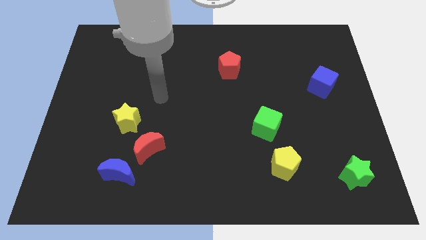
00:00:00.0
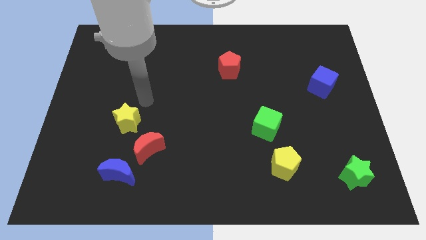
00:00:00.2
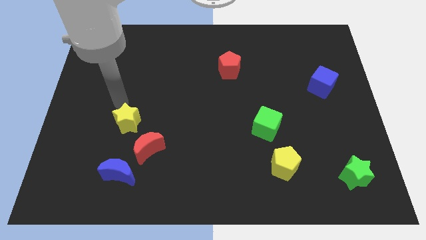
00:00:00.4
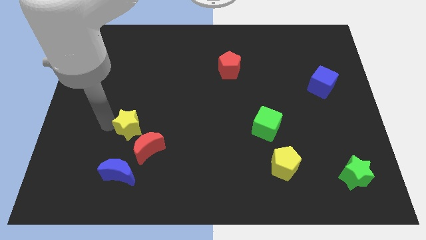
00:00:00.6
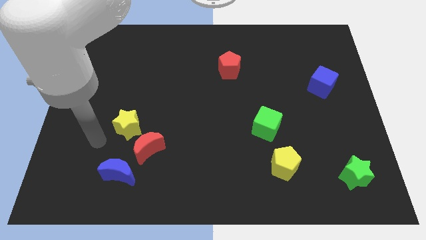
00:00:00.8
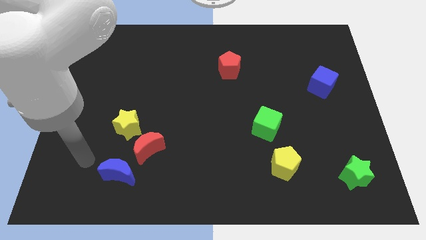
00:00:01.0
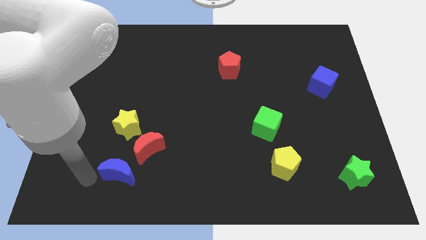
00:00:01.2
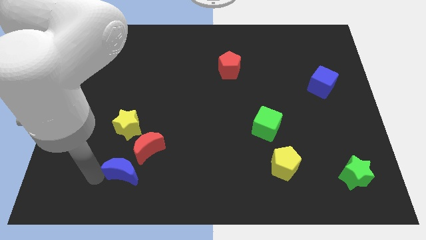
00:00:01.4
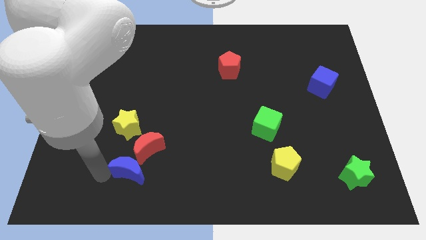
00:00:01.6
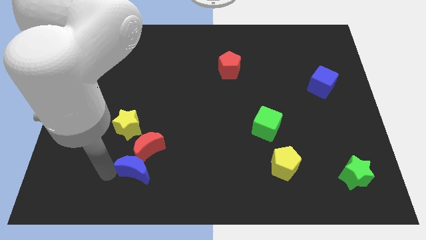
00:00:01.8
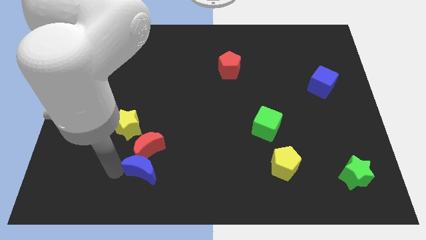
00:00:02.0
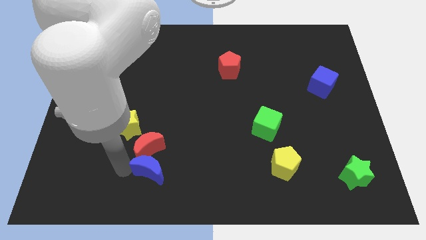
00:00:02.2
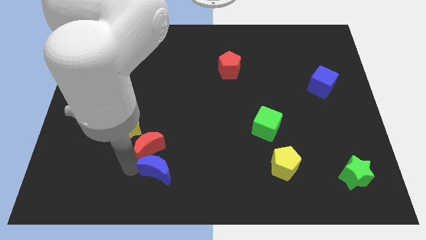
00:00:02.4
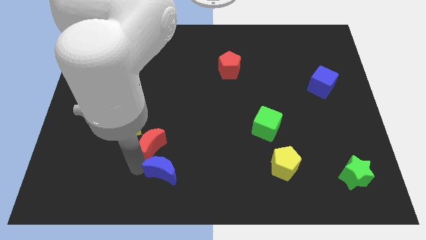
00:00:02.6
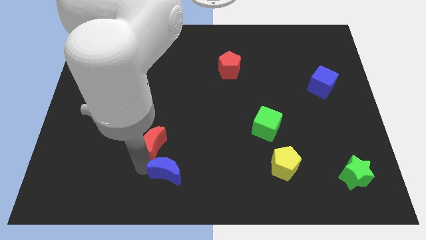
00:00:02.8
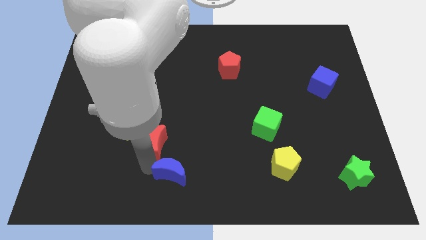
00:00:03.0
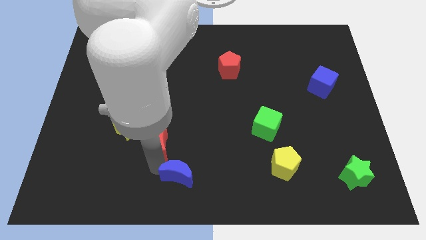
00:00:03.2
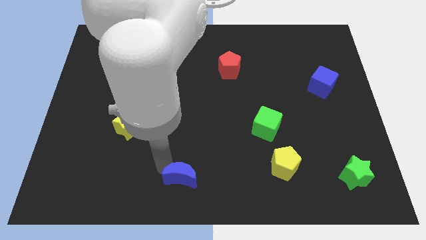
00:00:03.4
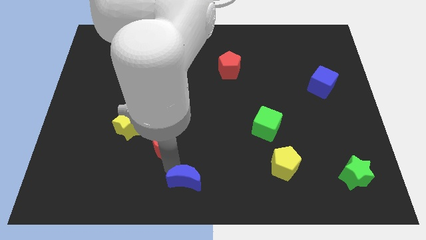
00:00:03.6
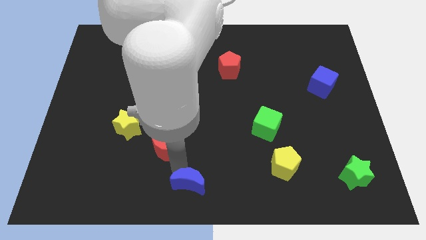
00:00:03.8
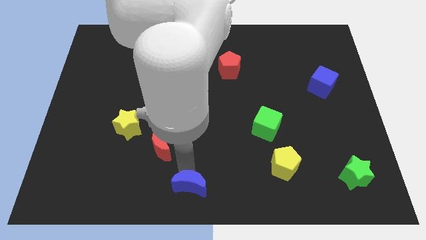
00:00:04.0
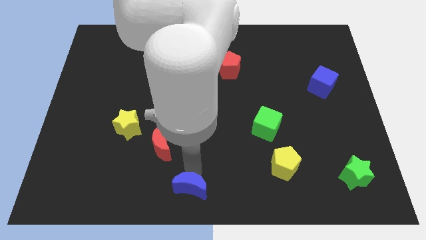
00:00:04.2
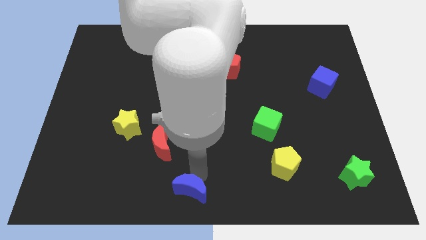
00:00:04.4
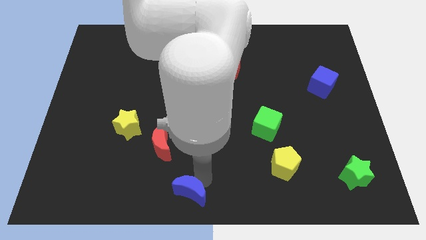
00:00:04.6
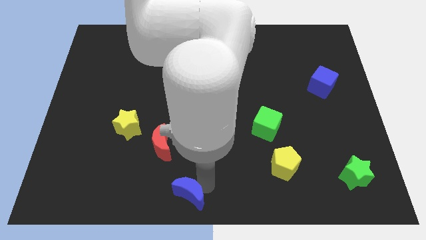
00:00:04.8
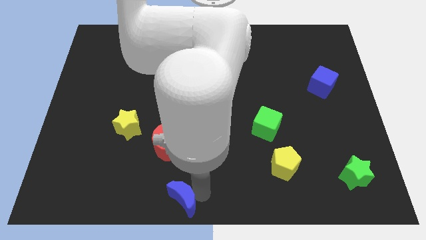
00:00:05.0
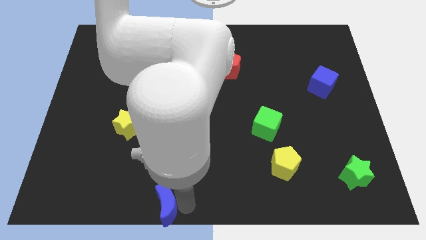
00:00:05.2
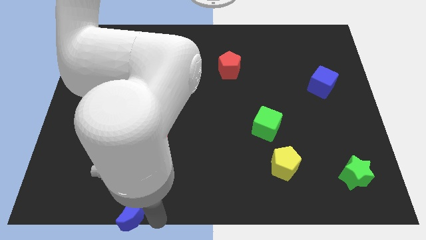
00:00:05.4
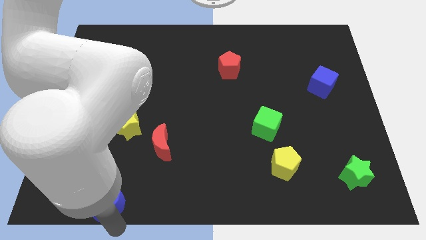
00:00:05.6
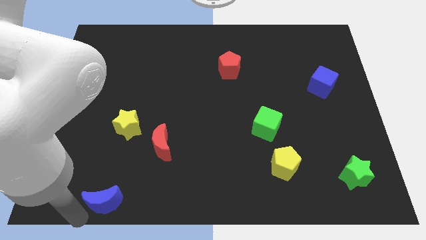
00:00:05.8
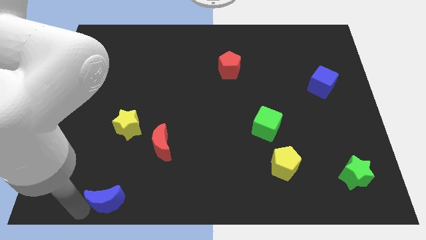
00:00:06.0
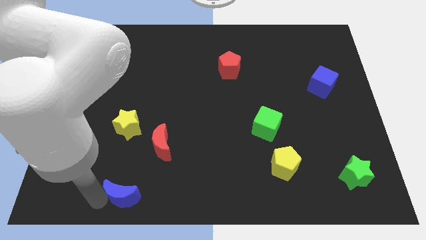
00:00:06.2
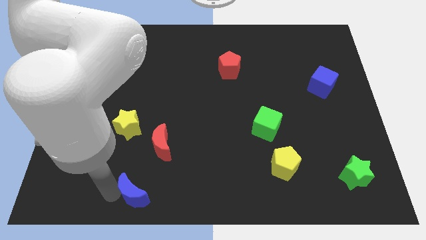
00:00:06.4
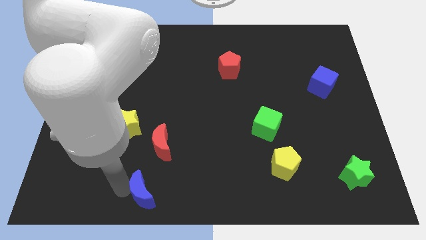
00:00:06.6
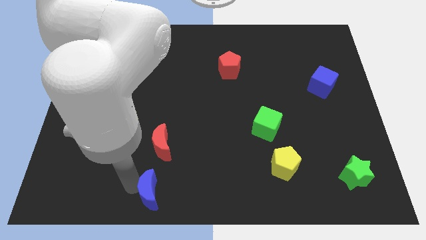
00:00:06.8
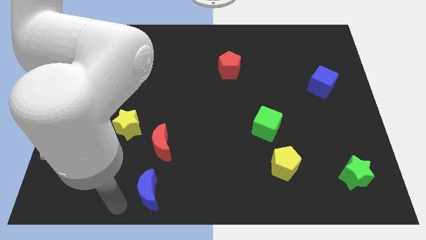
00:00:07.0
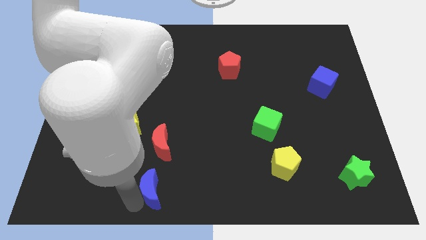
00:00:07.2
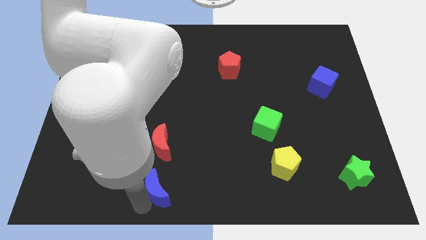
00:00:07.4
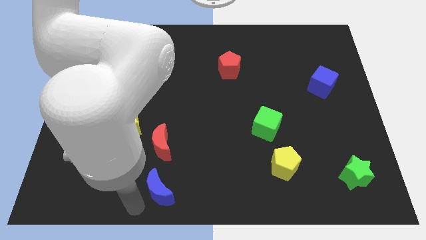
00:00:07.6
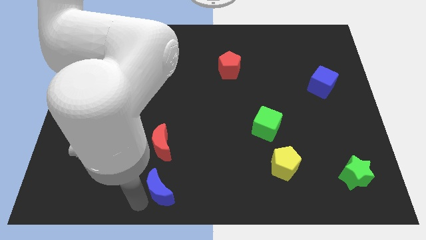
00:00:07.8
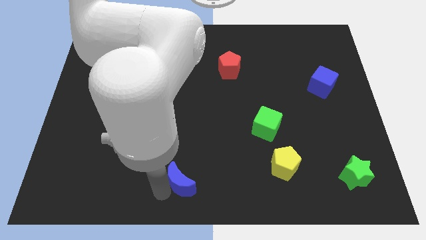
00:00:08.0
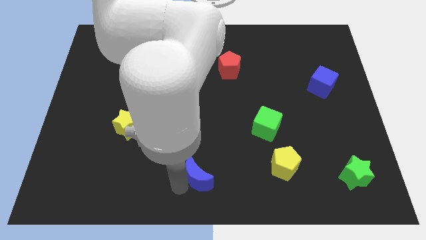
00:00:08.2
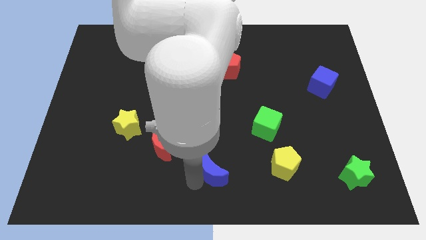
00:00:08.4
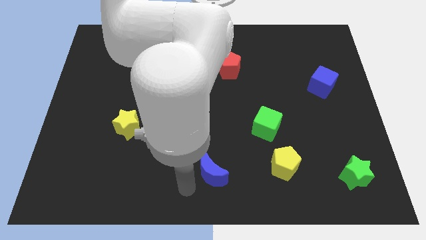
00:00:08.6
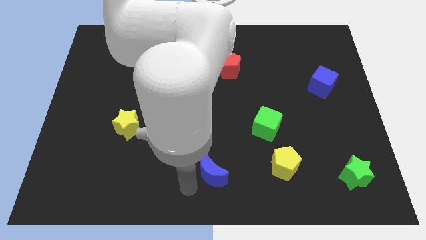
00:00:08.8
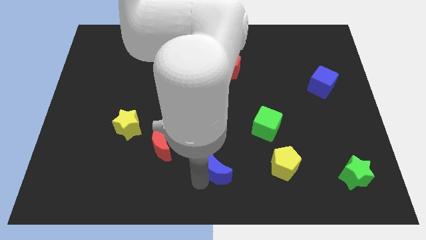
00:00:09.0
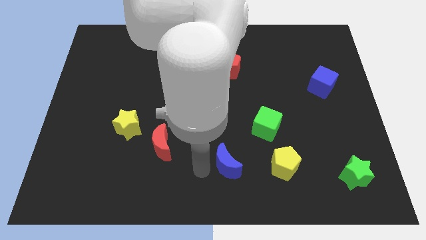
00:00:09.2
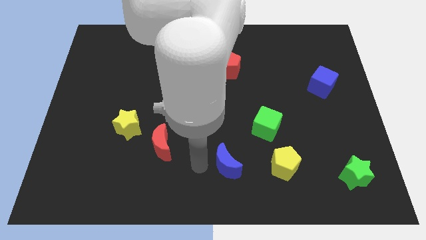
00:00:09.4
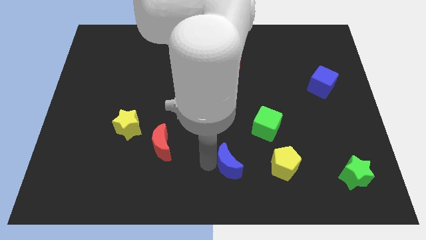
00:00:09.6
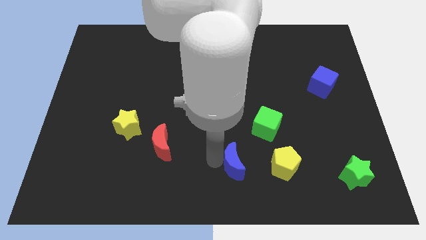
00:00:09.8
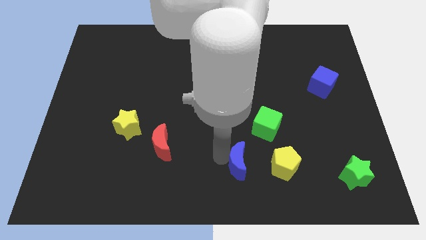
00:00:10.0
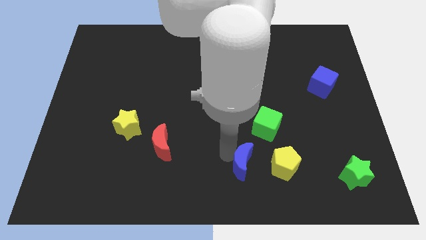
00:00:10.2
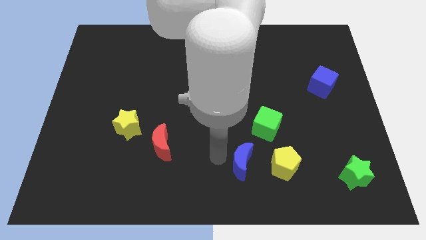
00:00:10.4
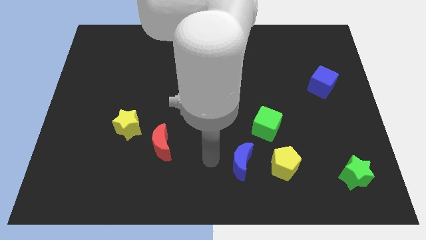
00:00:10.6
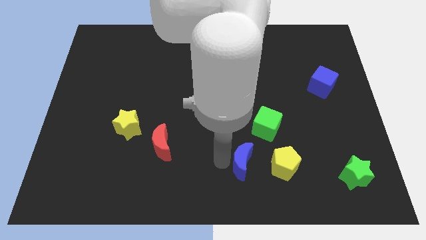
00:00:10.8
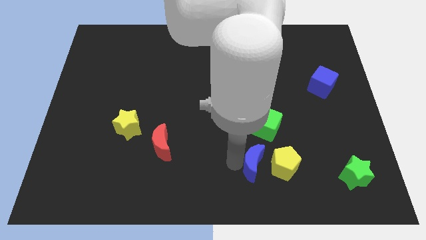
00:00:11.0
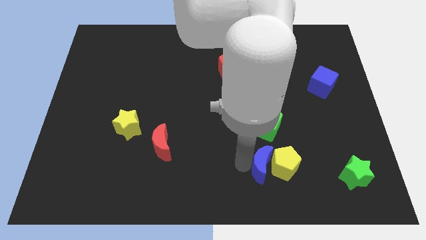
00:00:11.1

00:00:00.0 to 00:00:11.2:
move the blue moon close to the yellow pentagon

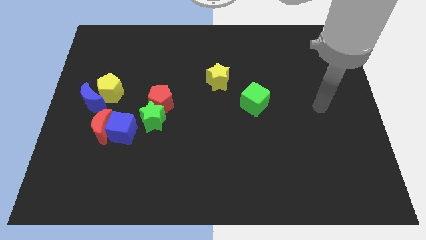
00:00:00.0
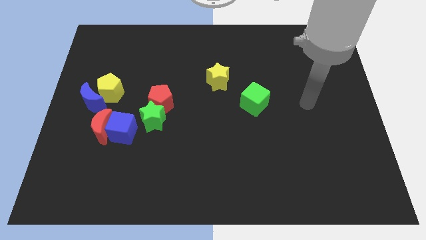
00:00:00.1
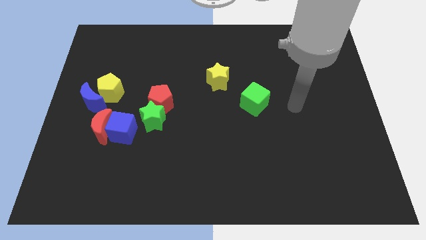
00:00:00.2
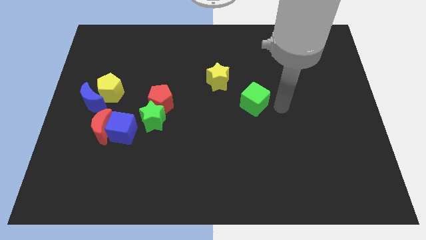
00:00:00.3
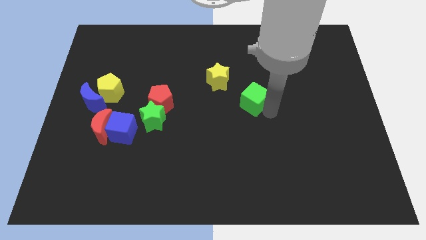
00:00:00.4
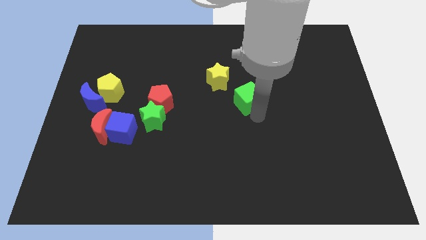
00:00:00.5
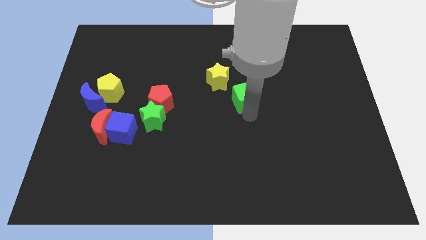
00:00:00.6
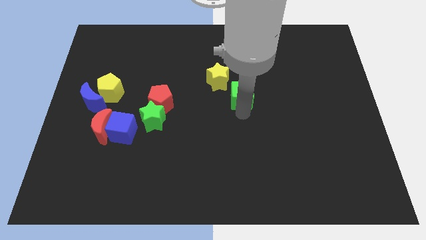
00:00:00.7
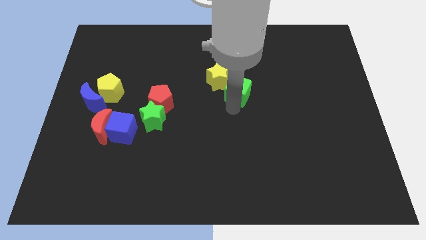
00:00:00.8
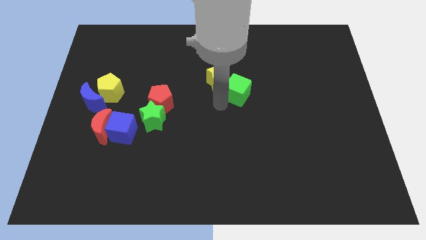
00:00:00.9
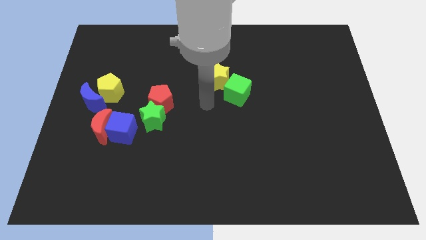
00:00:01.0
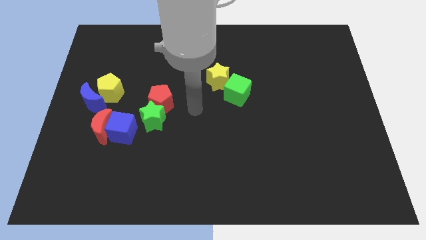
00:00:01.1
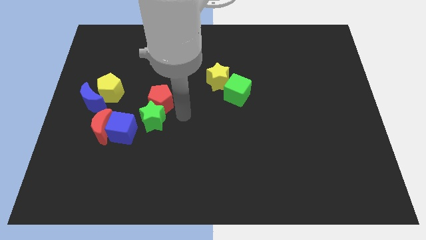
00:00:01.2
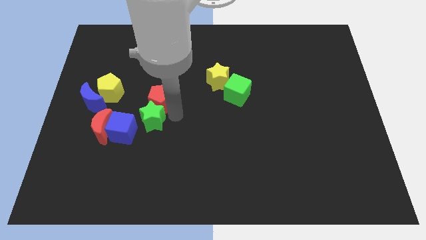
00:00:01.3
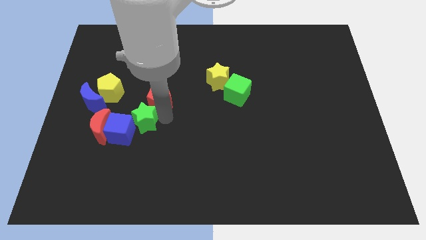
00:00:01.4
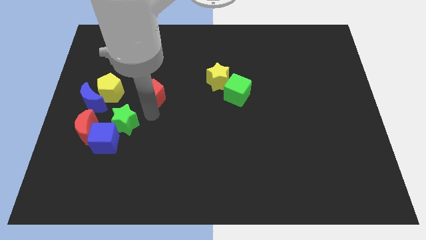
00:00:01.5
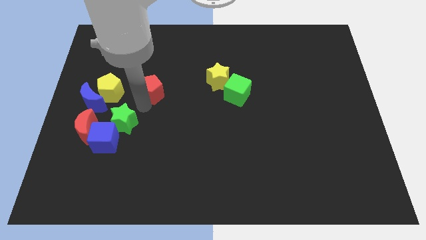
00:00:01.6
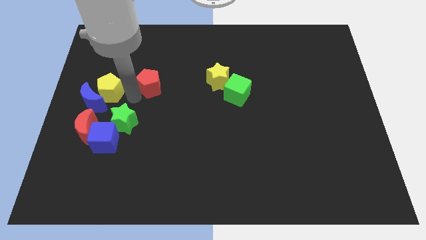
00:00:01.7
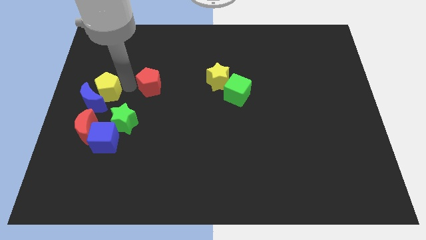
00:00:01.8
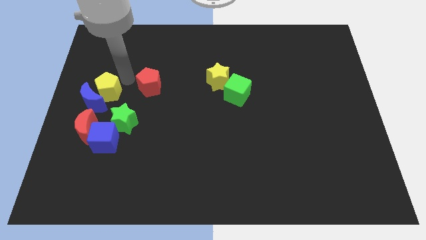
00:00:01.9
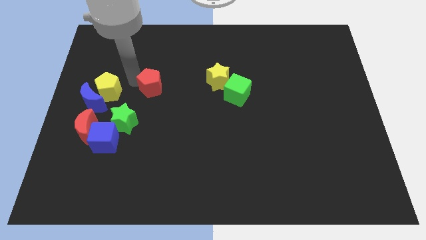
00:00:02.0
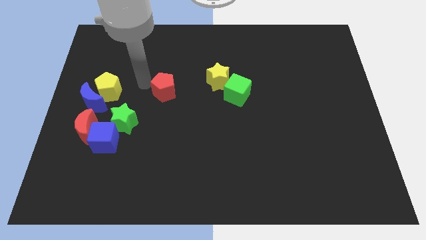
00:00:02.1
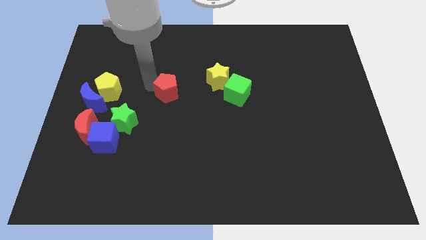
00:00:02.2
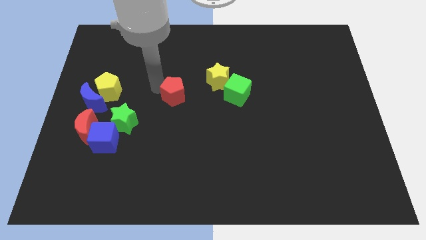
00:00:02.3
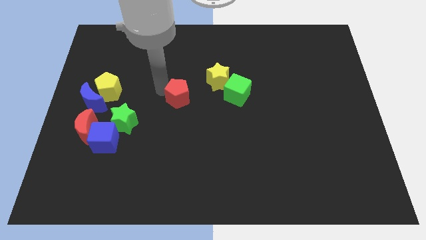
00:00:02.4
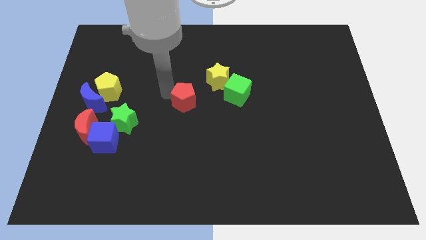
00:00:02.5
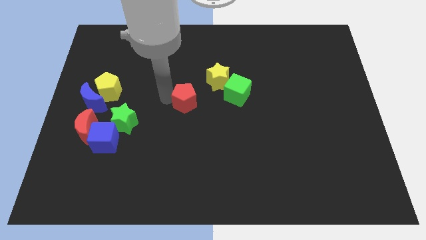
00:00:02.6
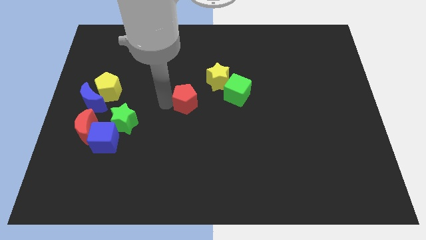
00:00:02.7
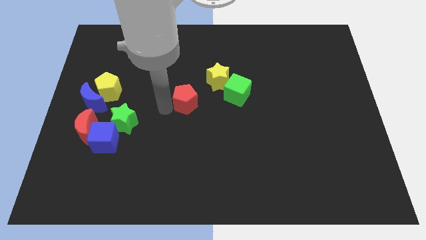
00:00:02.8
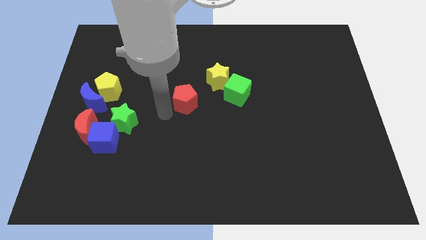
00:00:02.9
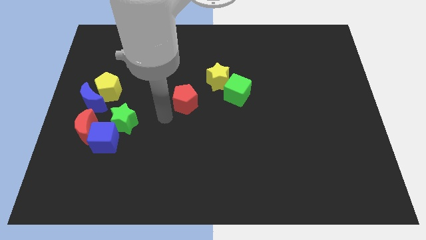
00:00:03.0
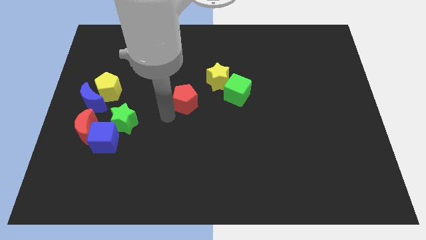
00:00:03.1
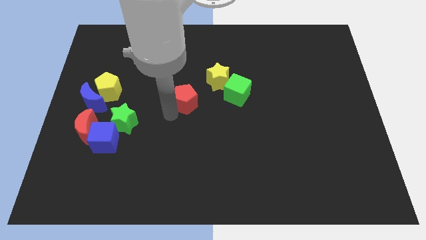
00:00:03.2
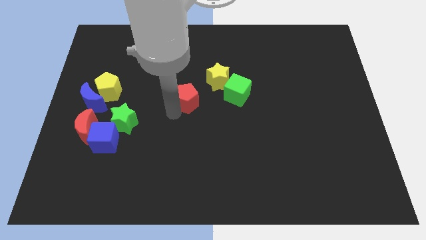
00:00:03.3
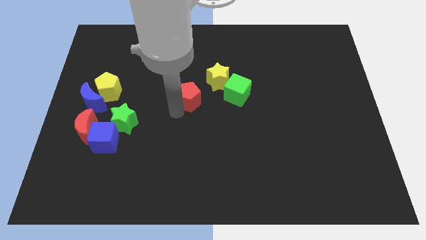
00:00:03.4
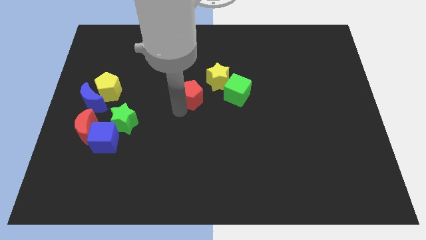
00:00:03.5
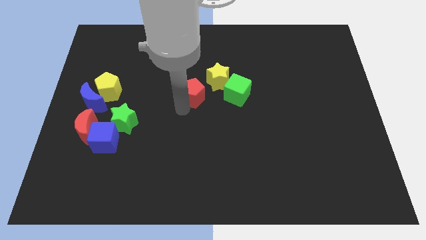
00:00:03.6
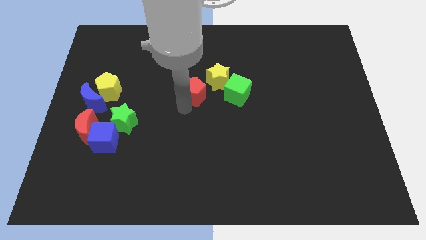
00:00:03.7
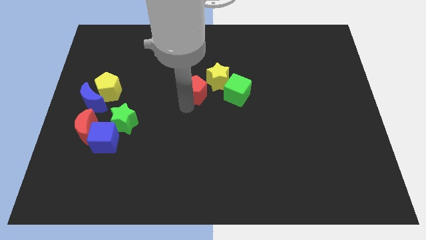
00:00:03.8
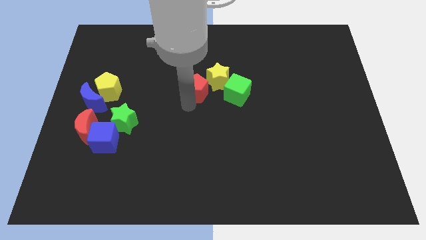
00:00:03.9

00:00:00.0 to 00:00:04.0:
slide the red pentagon next to the yellow star
